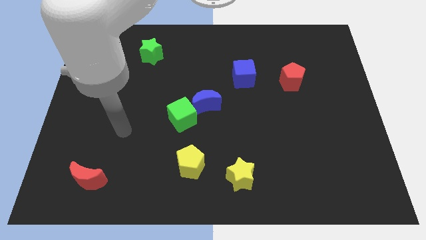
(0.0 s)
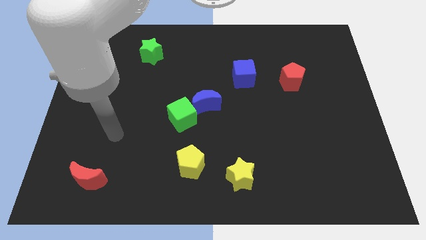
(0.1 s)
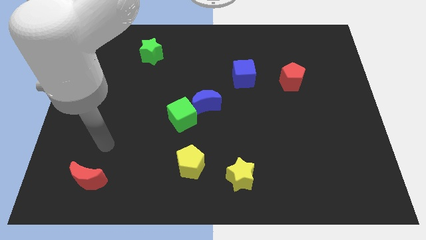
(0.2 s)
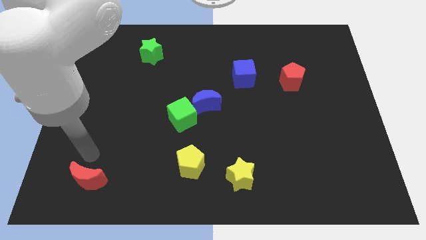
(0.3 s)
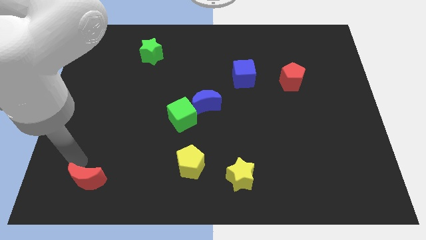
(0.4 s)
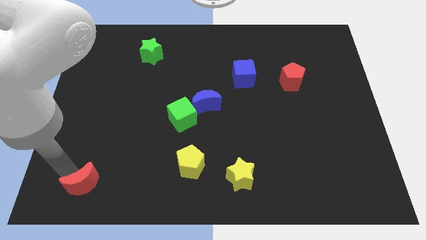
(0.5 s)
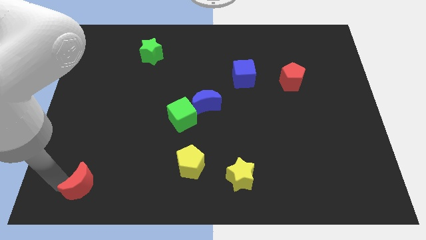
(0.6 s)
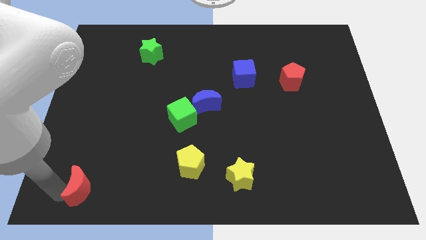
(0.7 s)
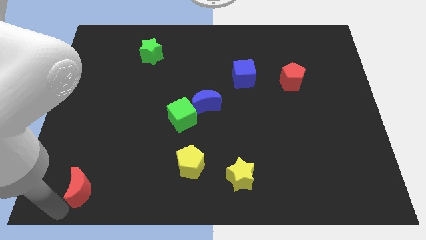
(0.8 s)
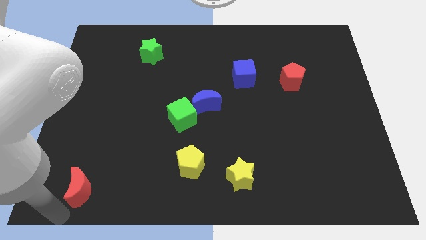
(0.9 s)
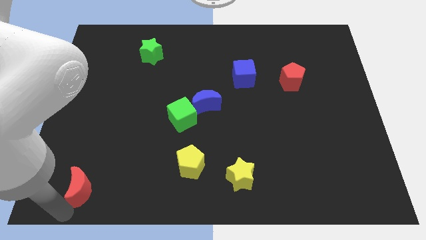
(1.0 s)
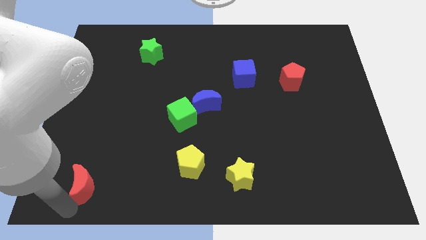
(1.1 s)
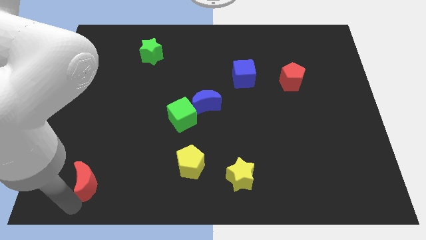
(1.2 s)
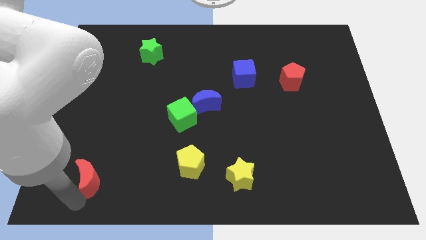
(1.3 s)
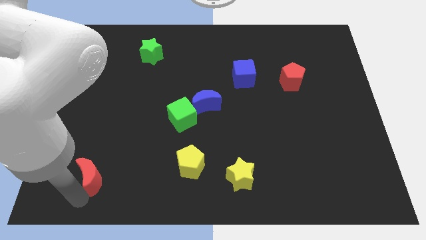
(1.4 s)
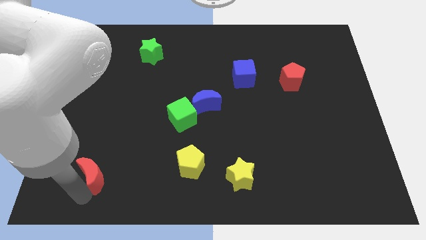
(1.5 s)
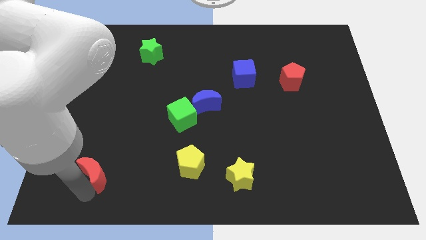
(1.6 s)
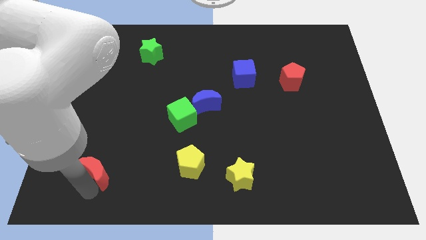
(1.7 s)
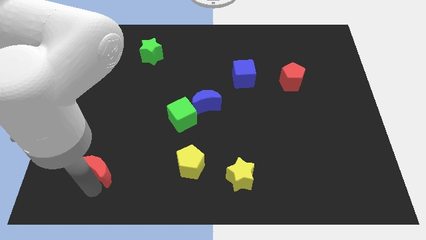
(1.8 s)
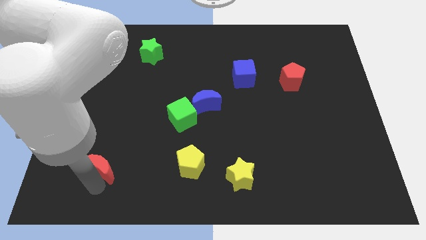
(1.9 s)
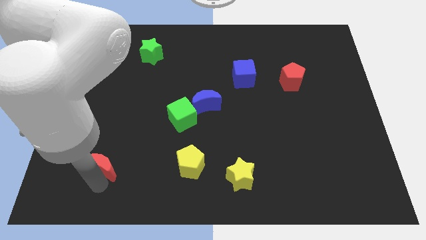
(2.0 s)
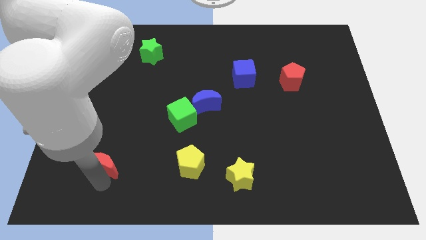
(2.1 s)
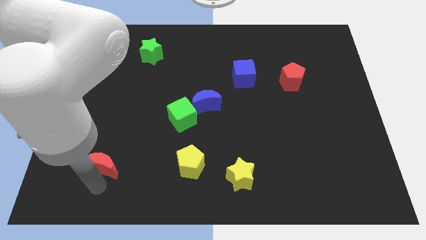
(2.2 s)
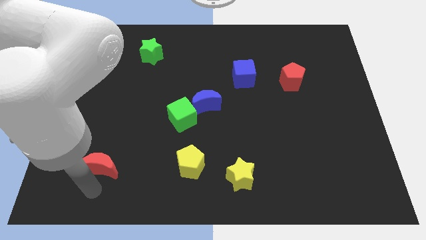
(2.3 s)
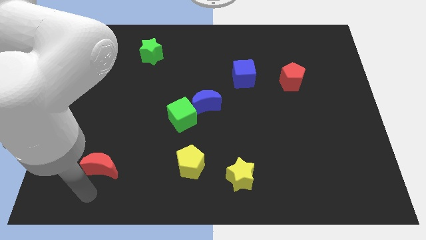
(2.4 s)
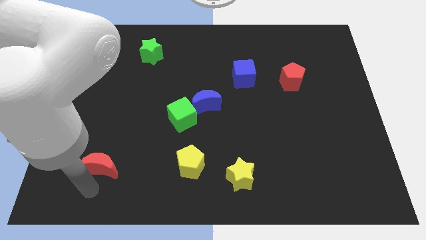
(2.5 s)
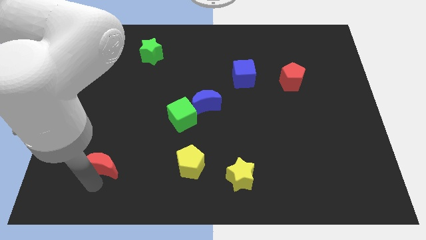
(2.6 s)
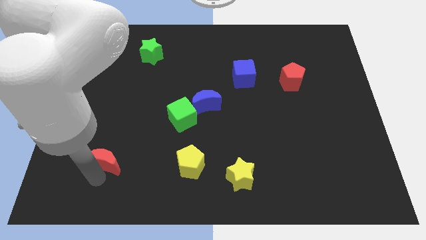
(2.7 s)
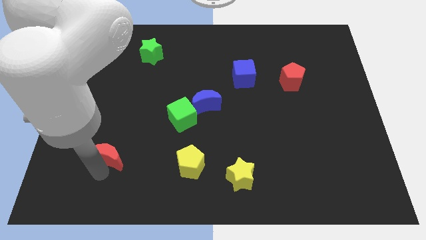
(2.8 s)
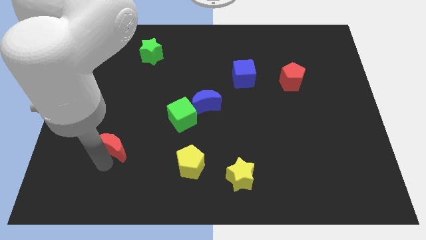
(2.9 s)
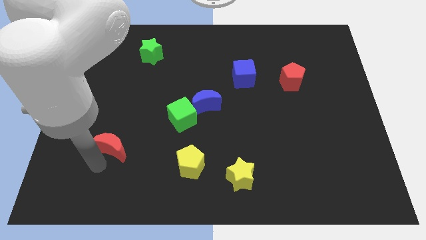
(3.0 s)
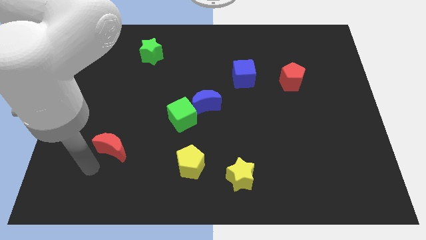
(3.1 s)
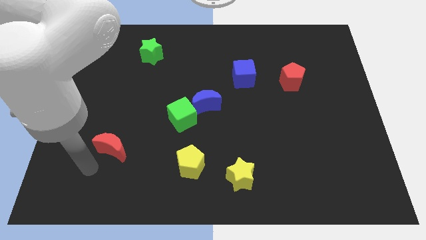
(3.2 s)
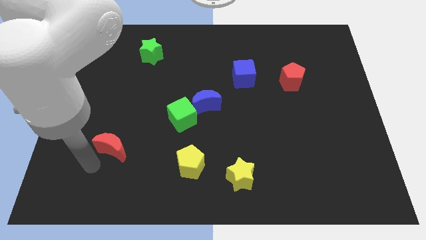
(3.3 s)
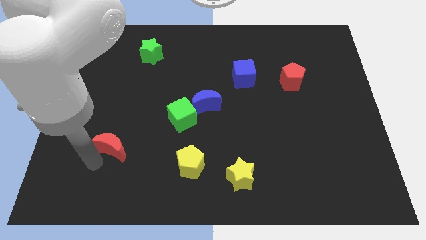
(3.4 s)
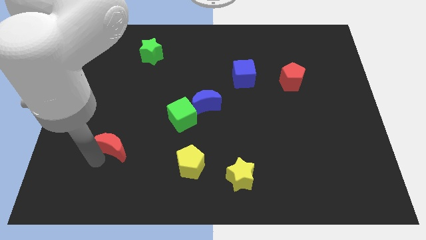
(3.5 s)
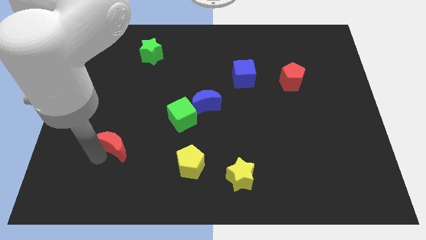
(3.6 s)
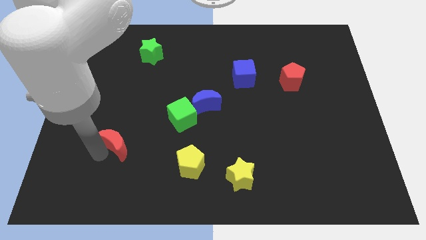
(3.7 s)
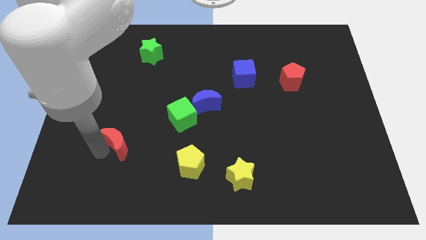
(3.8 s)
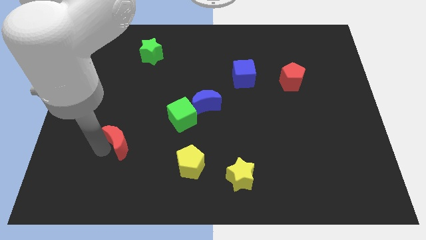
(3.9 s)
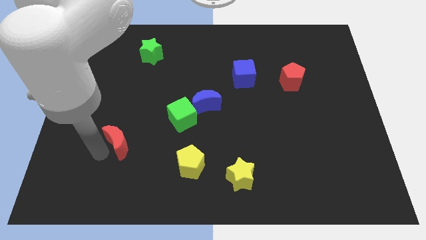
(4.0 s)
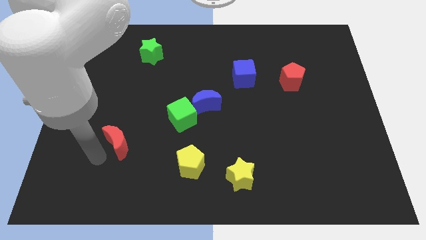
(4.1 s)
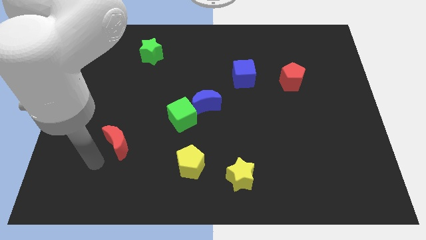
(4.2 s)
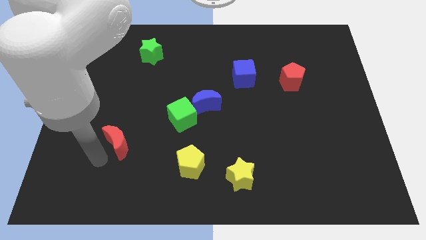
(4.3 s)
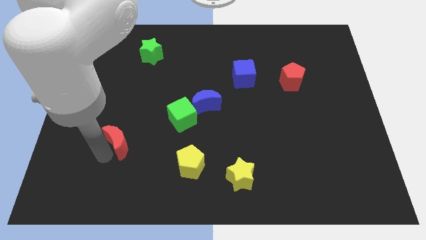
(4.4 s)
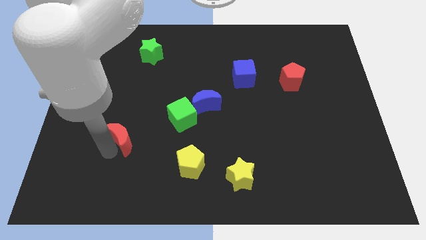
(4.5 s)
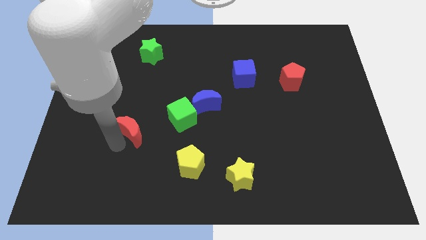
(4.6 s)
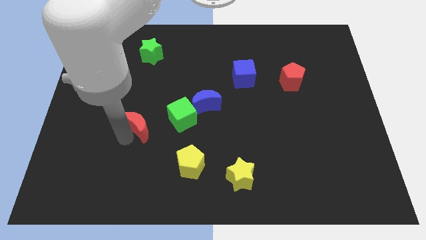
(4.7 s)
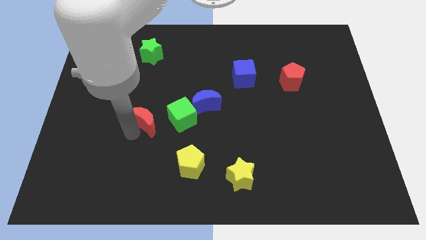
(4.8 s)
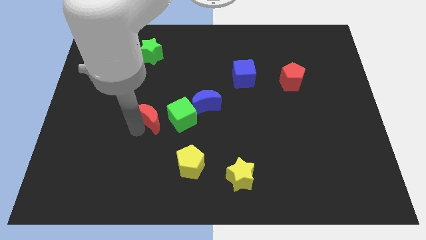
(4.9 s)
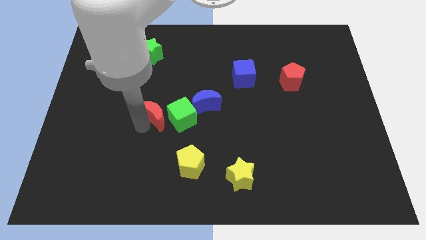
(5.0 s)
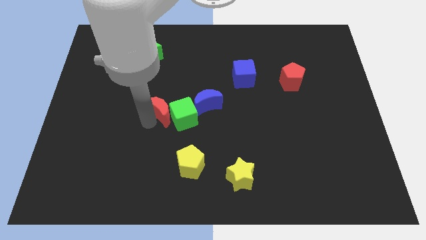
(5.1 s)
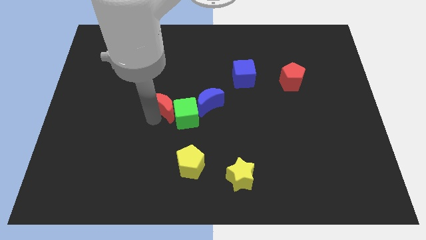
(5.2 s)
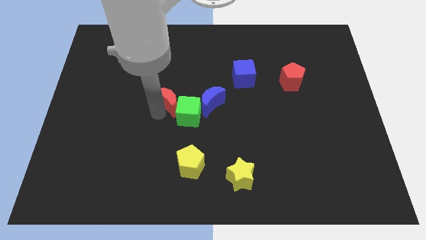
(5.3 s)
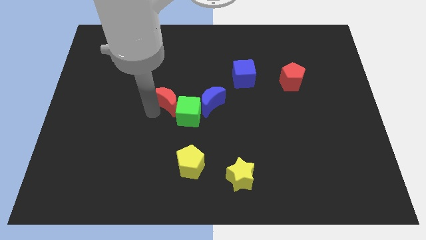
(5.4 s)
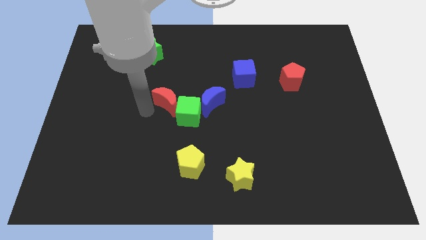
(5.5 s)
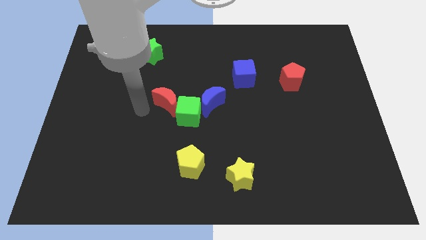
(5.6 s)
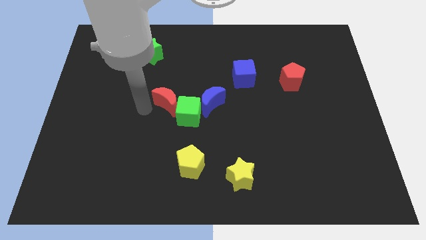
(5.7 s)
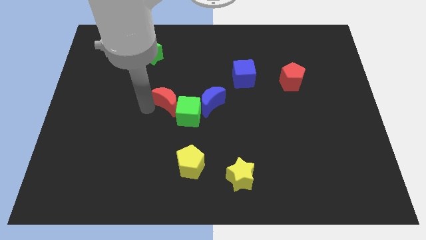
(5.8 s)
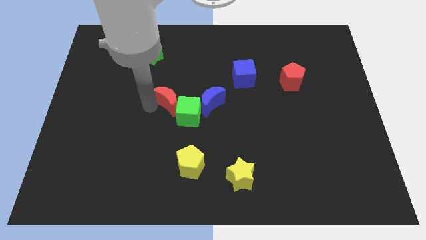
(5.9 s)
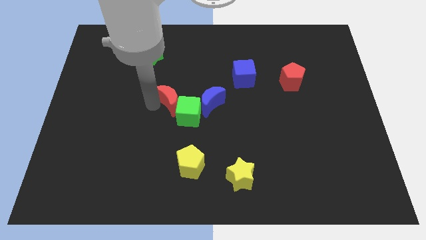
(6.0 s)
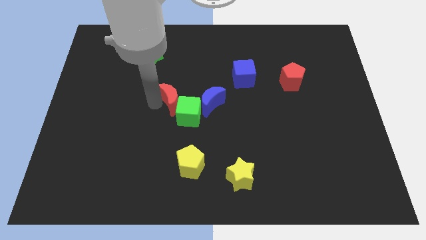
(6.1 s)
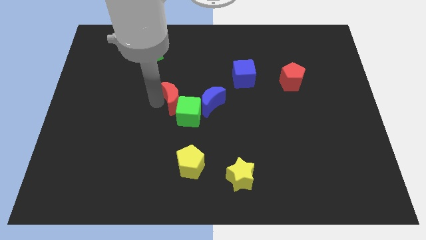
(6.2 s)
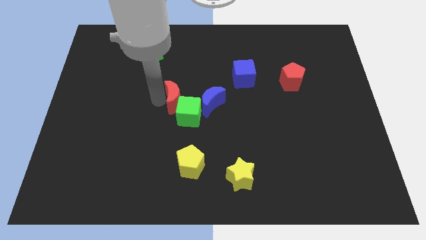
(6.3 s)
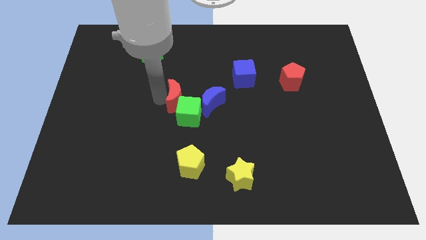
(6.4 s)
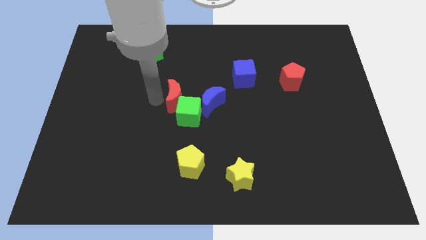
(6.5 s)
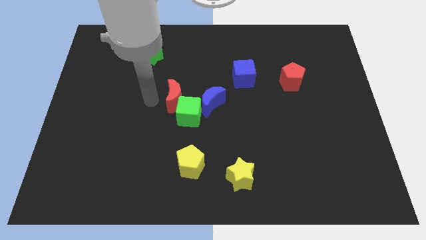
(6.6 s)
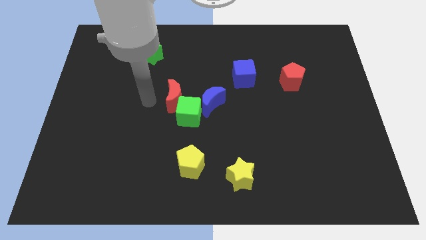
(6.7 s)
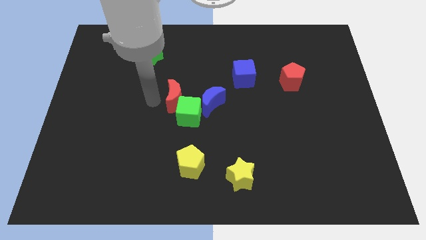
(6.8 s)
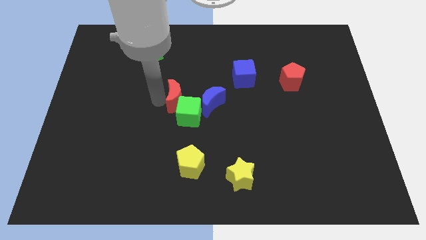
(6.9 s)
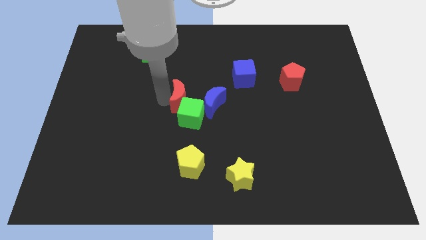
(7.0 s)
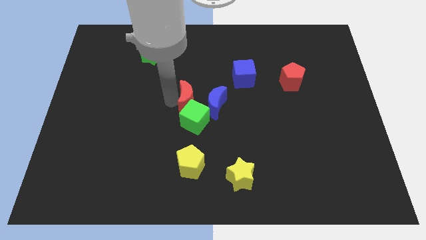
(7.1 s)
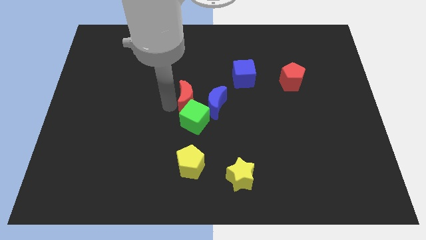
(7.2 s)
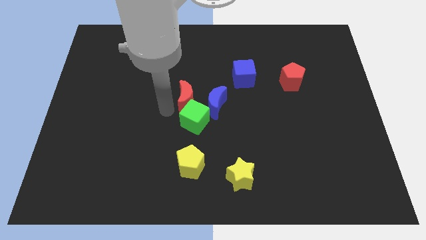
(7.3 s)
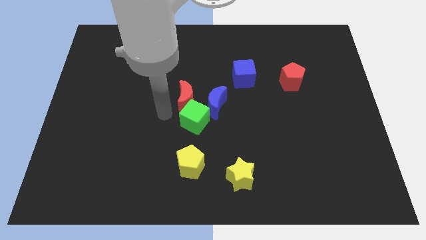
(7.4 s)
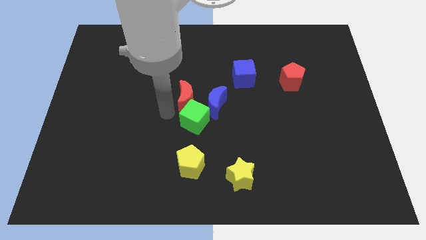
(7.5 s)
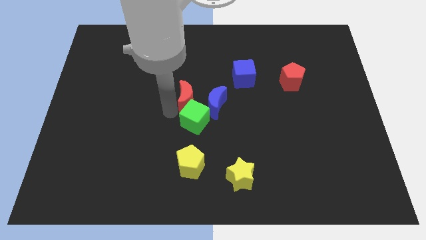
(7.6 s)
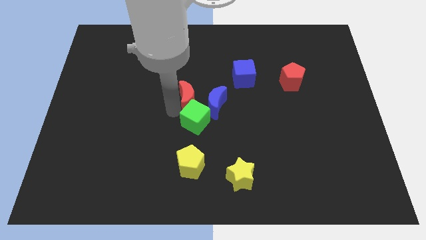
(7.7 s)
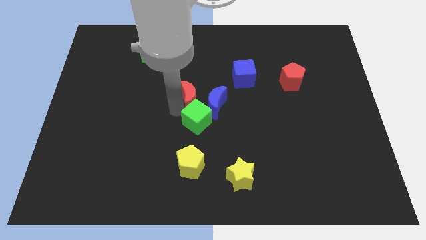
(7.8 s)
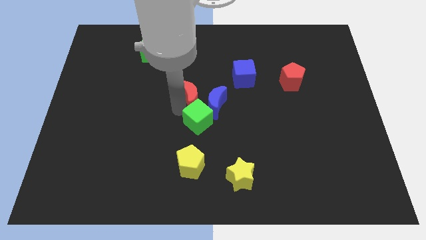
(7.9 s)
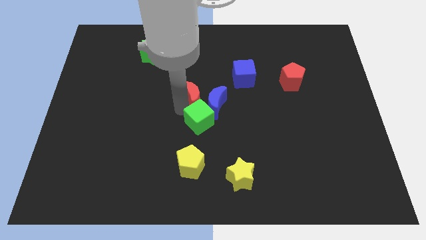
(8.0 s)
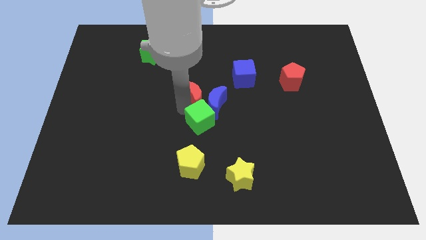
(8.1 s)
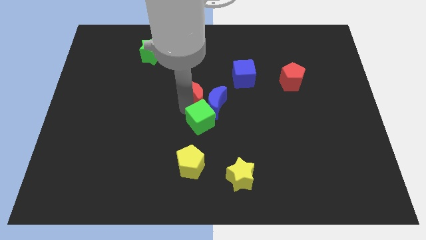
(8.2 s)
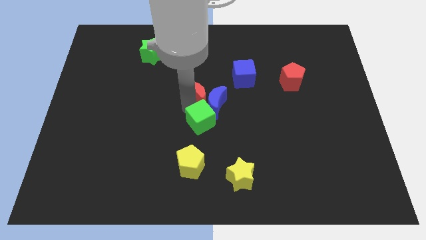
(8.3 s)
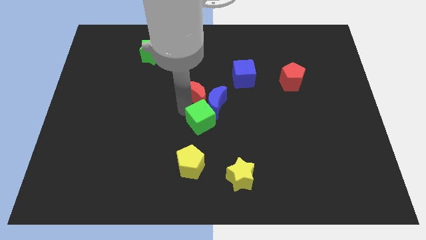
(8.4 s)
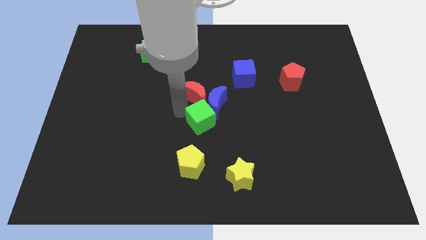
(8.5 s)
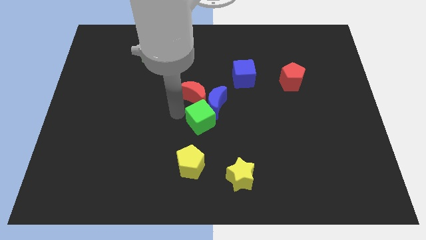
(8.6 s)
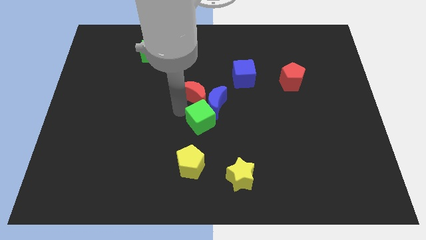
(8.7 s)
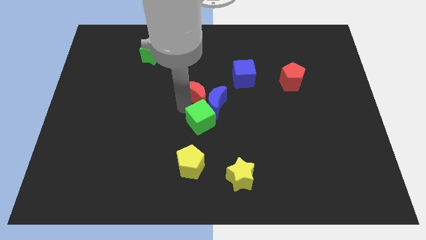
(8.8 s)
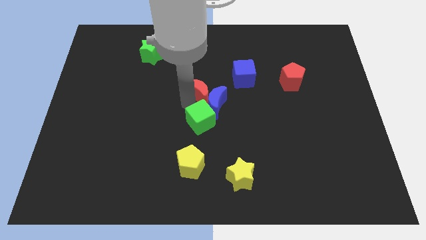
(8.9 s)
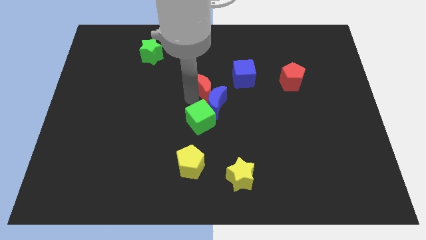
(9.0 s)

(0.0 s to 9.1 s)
put the red moon to the bottom left side of the blue cube
